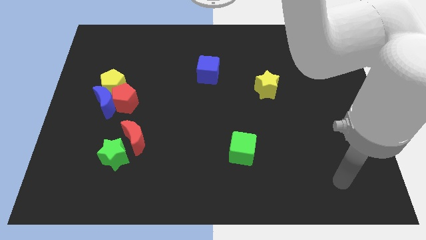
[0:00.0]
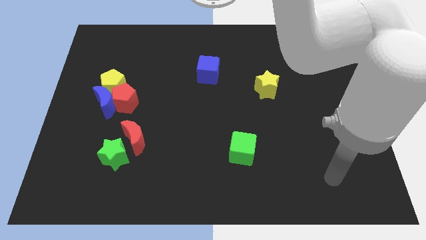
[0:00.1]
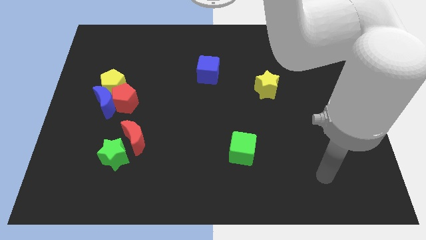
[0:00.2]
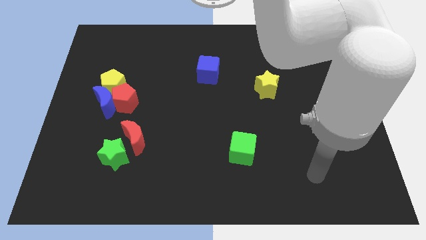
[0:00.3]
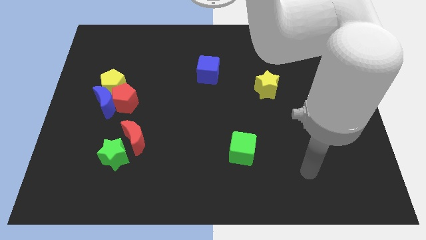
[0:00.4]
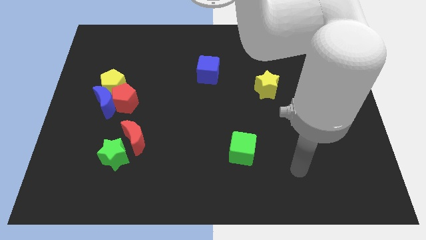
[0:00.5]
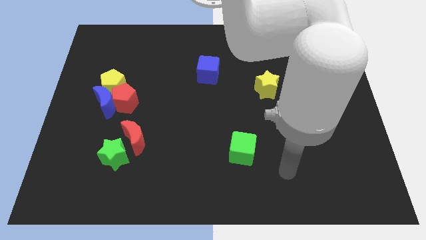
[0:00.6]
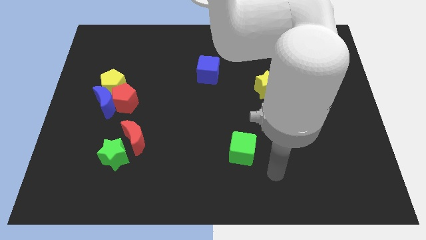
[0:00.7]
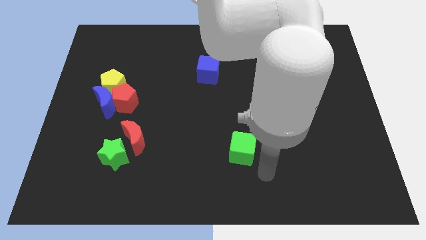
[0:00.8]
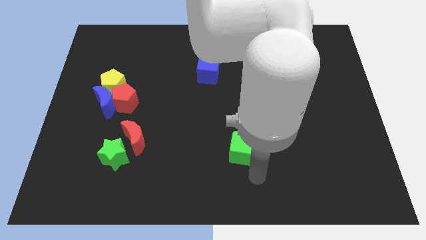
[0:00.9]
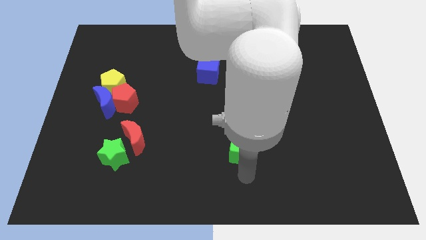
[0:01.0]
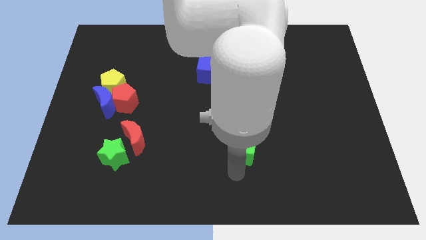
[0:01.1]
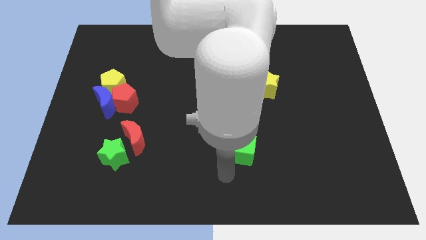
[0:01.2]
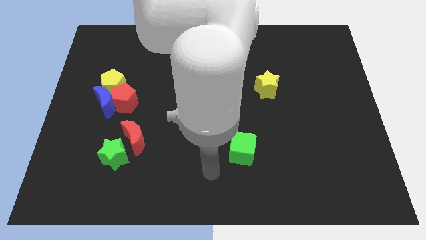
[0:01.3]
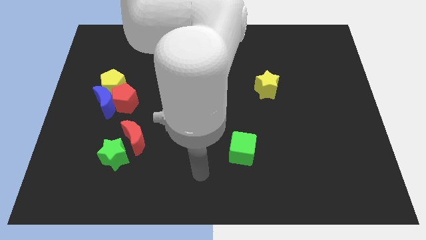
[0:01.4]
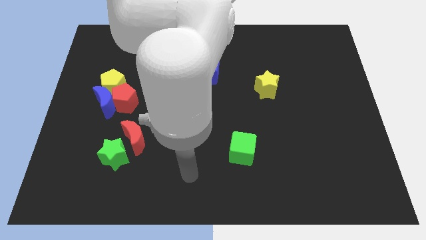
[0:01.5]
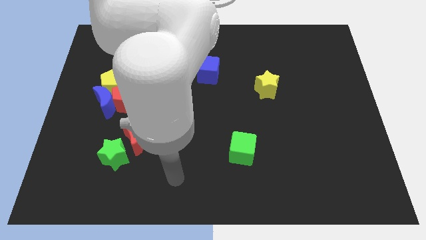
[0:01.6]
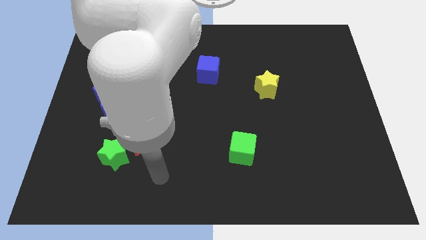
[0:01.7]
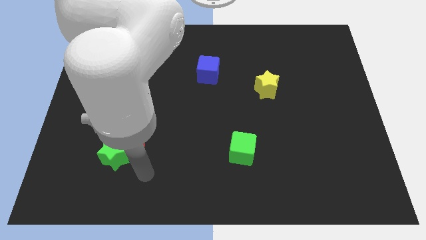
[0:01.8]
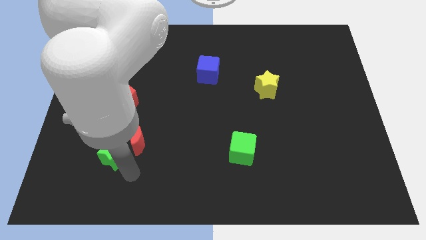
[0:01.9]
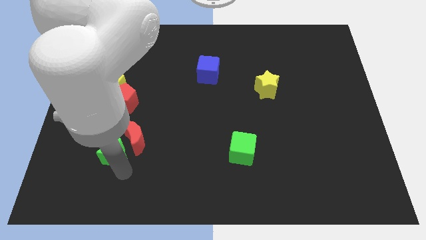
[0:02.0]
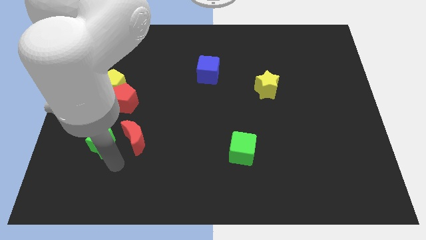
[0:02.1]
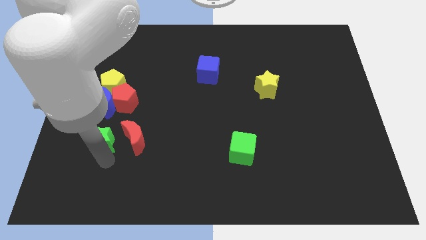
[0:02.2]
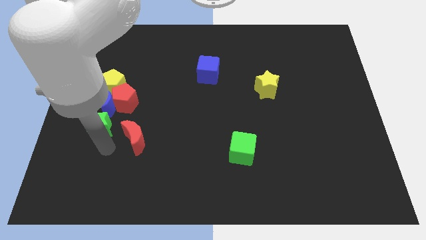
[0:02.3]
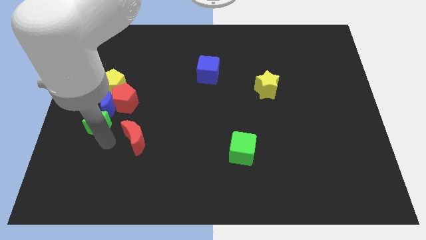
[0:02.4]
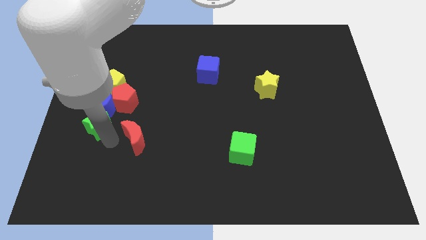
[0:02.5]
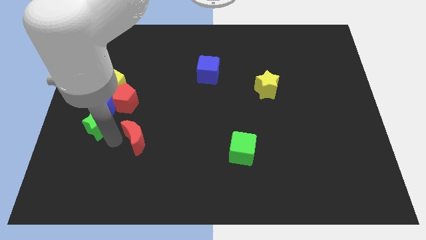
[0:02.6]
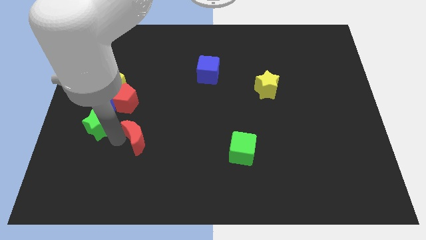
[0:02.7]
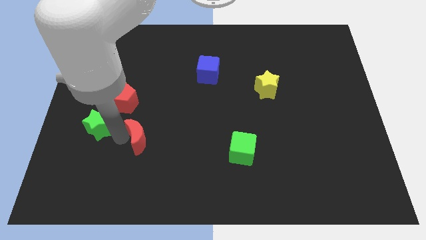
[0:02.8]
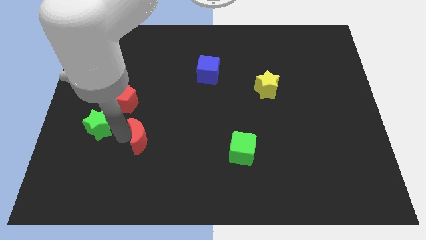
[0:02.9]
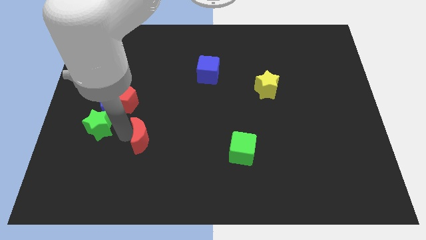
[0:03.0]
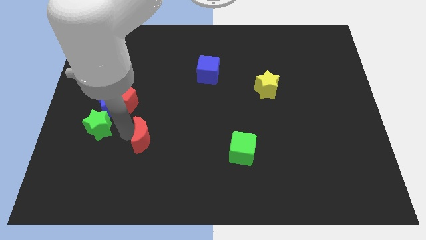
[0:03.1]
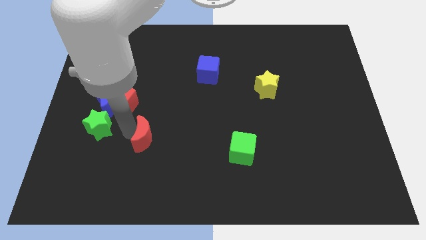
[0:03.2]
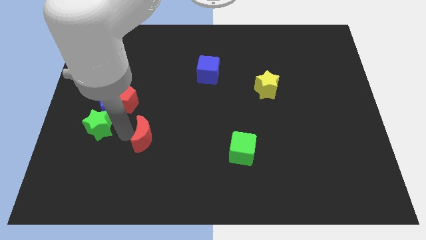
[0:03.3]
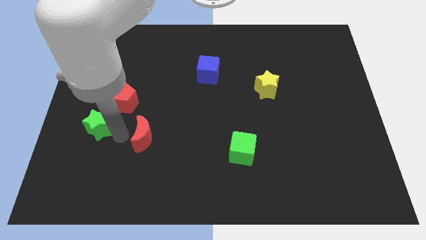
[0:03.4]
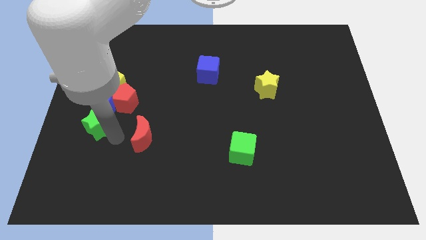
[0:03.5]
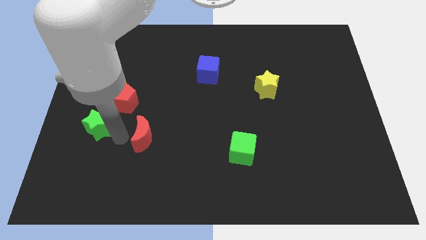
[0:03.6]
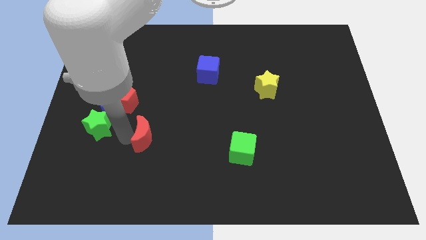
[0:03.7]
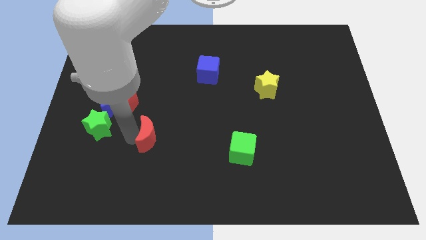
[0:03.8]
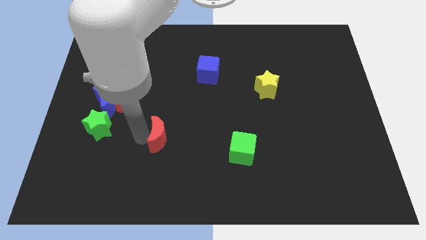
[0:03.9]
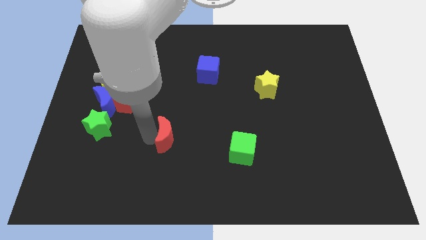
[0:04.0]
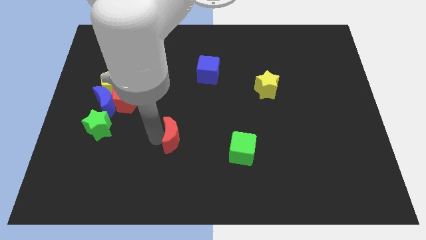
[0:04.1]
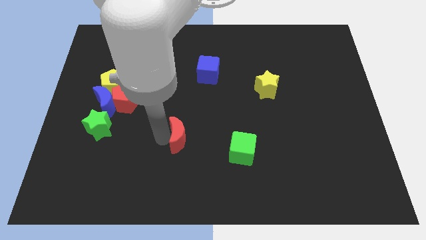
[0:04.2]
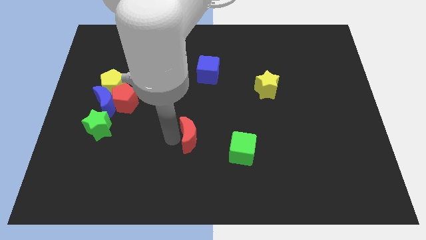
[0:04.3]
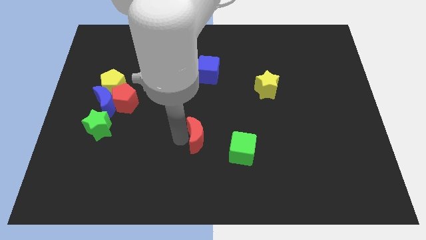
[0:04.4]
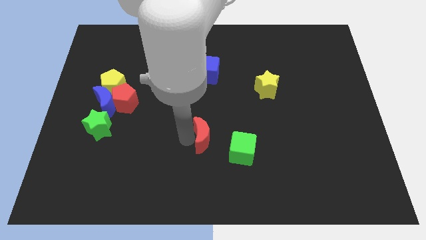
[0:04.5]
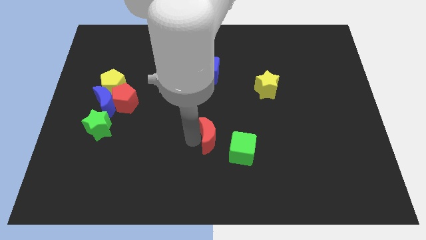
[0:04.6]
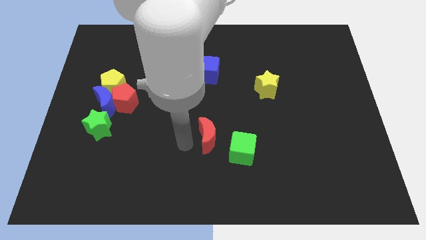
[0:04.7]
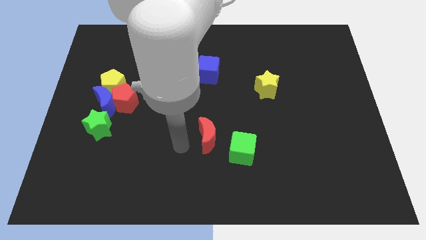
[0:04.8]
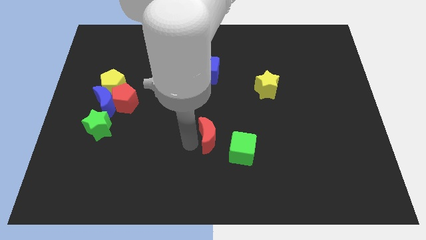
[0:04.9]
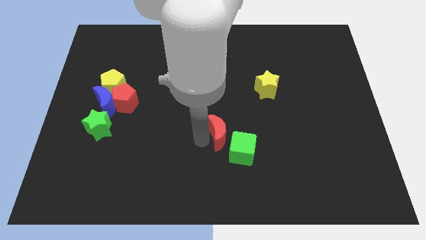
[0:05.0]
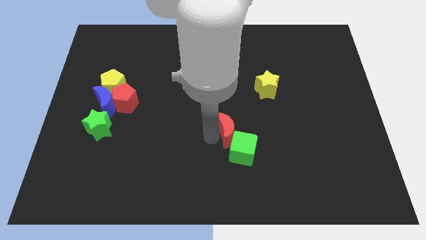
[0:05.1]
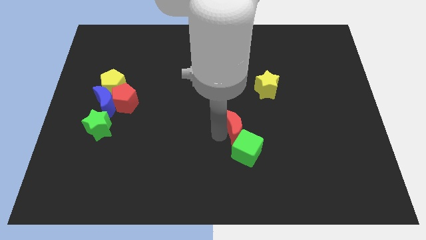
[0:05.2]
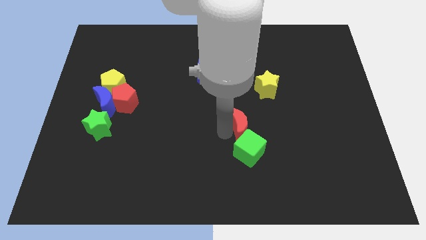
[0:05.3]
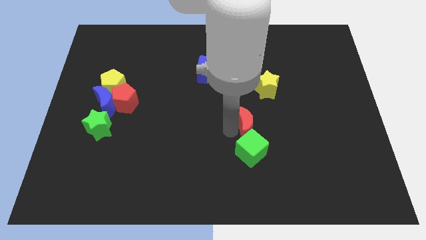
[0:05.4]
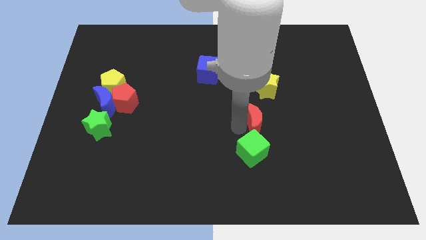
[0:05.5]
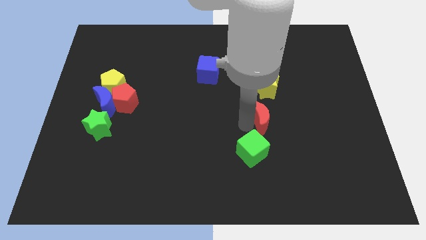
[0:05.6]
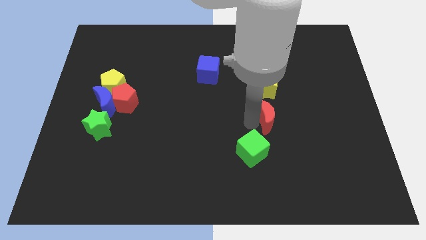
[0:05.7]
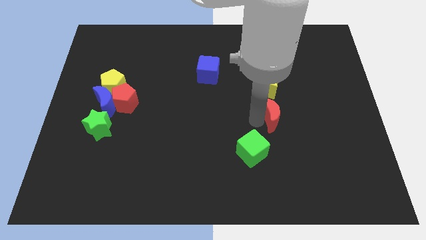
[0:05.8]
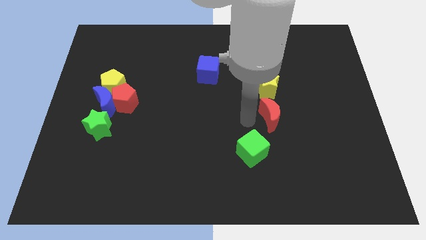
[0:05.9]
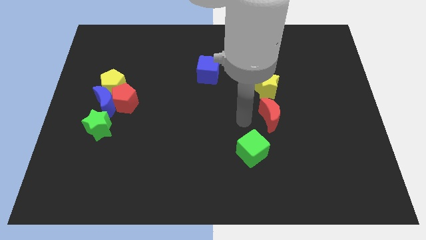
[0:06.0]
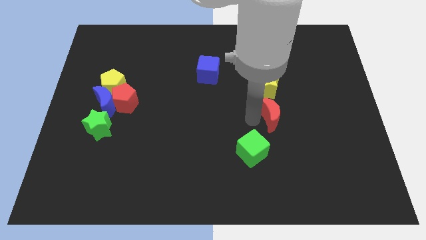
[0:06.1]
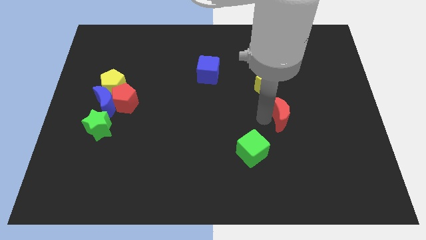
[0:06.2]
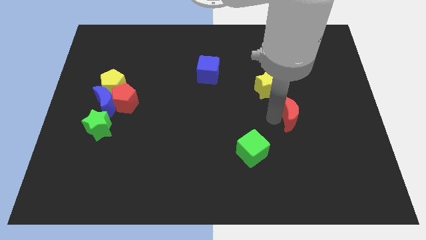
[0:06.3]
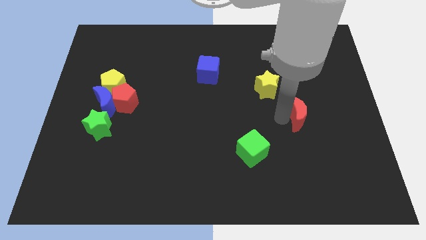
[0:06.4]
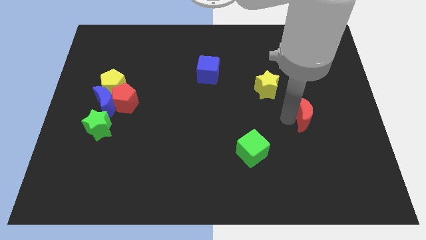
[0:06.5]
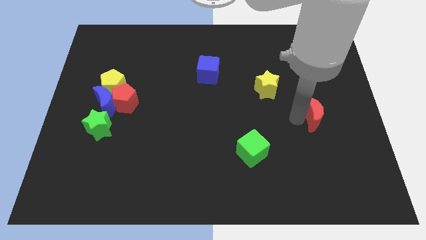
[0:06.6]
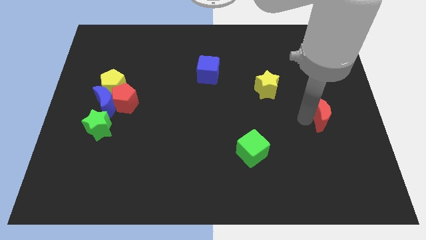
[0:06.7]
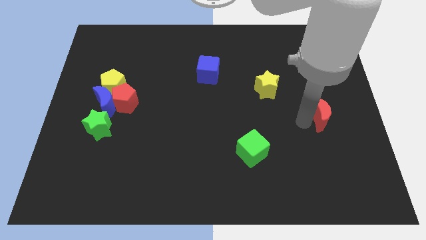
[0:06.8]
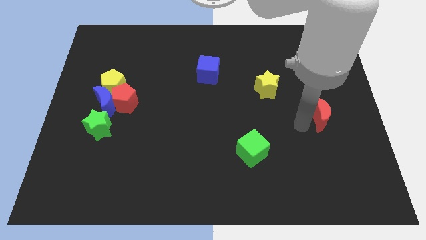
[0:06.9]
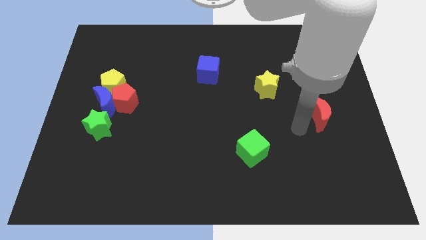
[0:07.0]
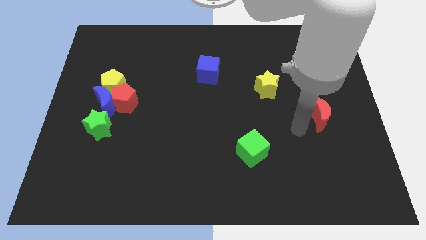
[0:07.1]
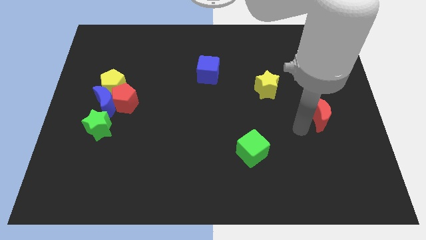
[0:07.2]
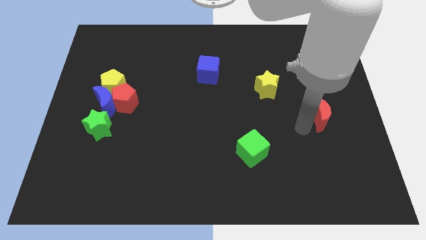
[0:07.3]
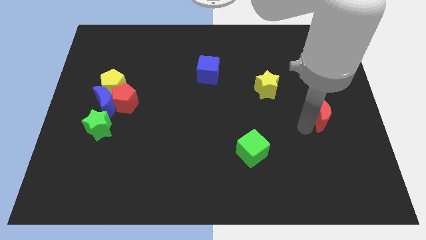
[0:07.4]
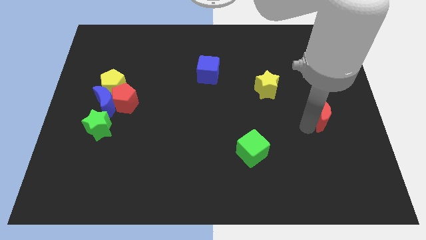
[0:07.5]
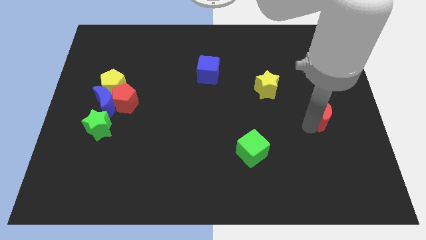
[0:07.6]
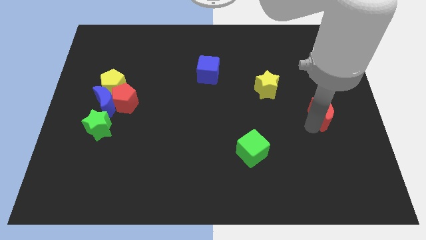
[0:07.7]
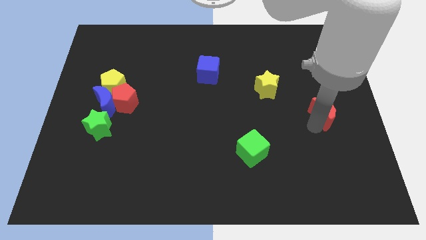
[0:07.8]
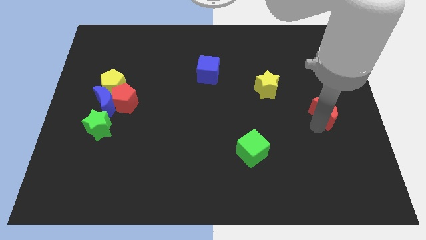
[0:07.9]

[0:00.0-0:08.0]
push the red moon to the right side
